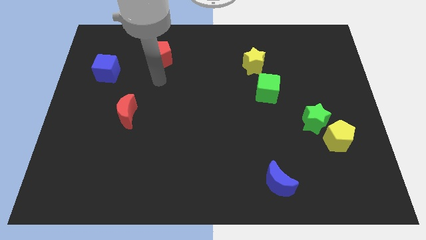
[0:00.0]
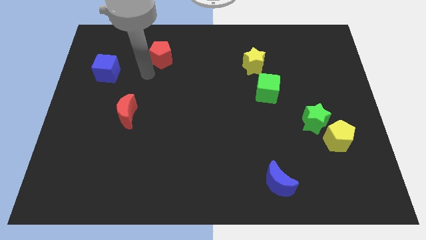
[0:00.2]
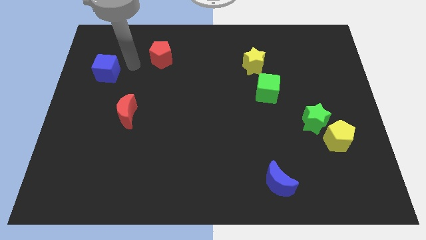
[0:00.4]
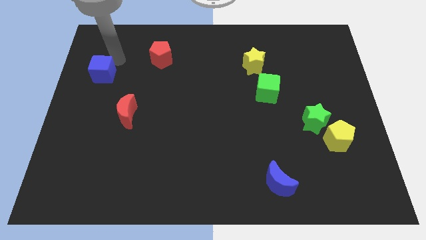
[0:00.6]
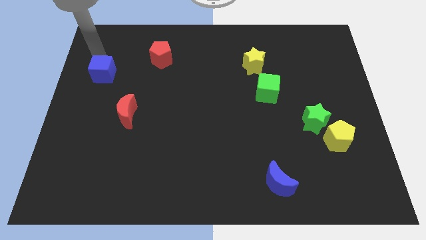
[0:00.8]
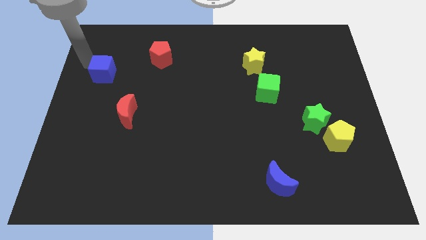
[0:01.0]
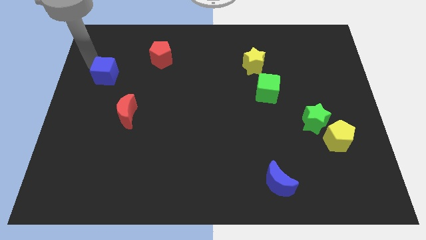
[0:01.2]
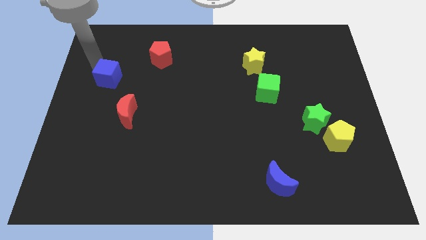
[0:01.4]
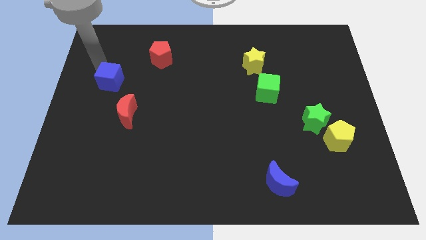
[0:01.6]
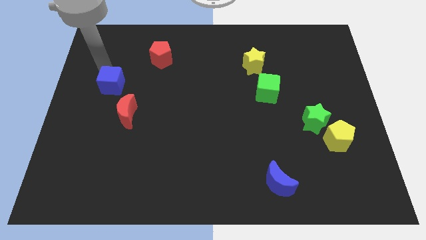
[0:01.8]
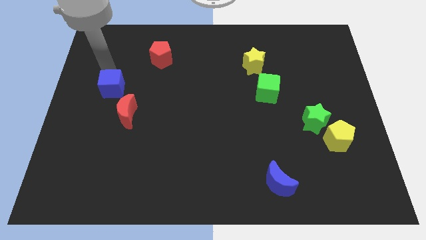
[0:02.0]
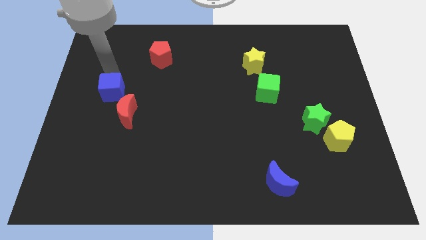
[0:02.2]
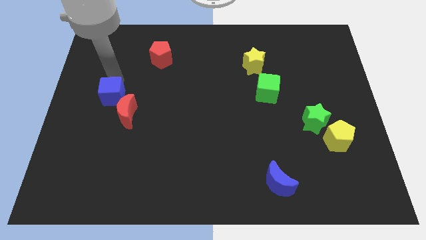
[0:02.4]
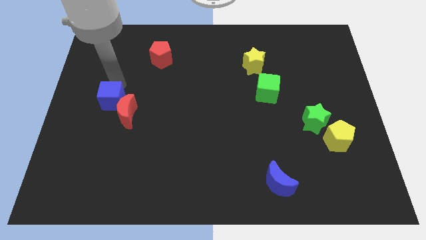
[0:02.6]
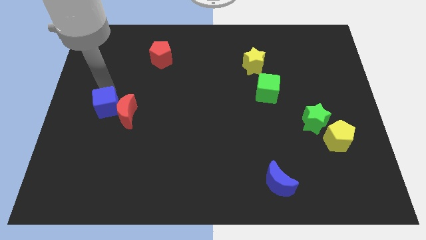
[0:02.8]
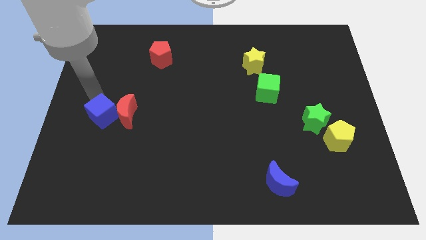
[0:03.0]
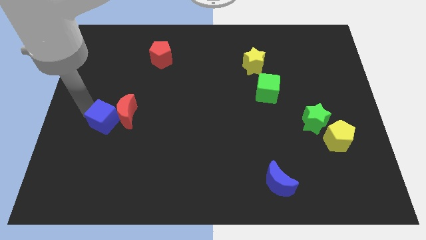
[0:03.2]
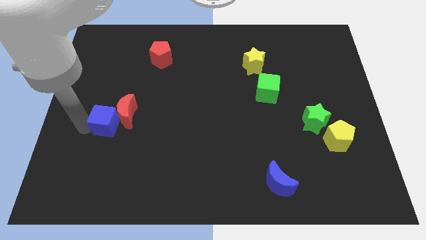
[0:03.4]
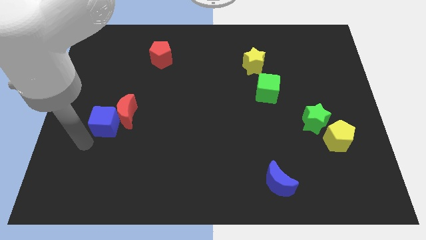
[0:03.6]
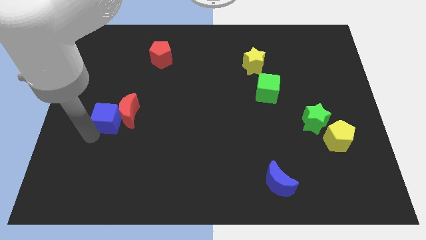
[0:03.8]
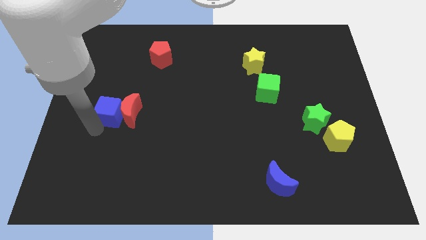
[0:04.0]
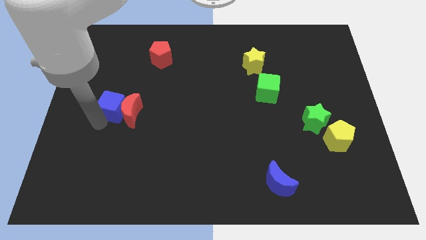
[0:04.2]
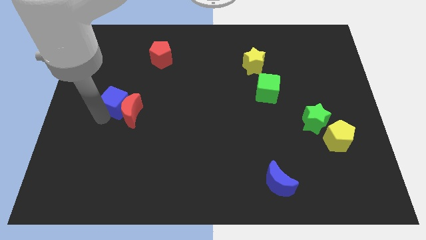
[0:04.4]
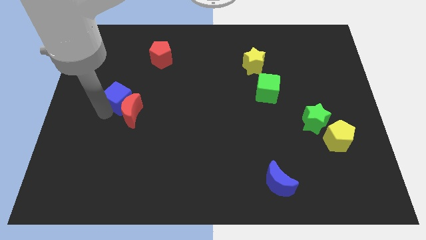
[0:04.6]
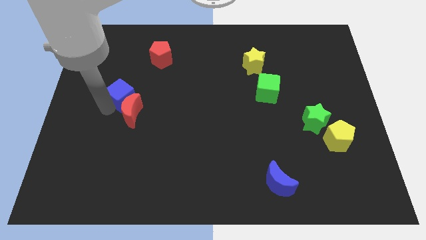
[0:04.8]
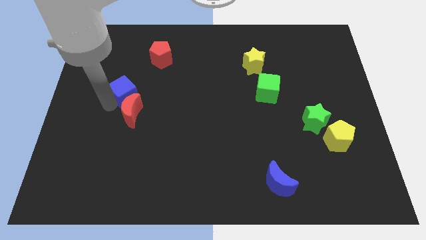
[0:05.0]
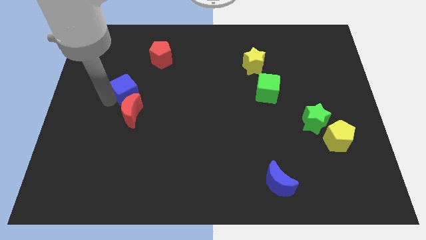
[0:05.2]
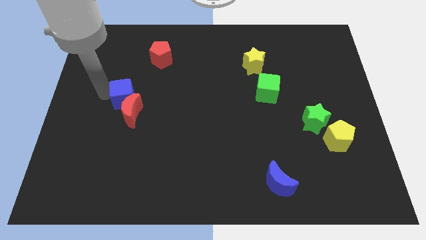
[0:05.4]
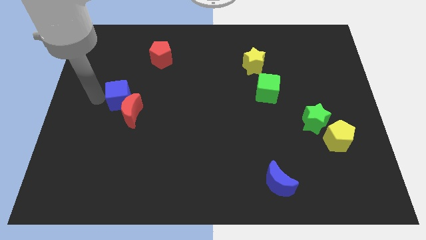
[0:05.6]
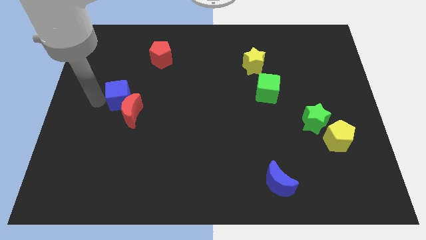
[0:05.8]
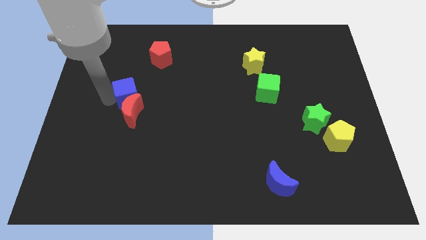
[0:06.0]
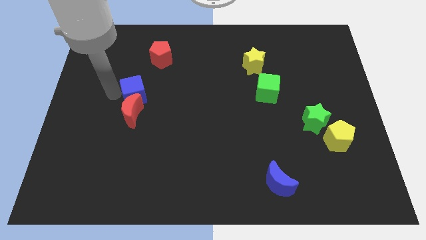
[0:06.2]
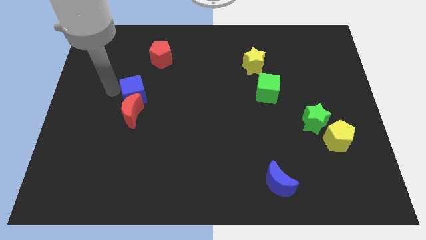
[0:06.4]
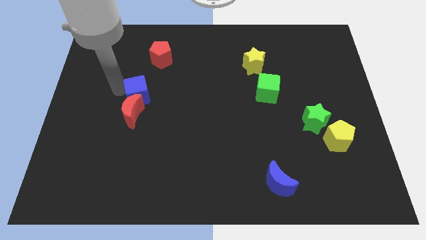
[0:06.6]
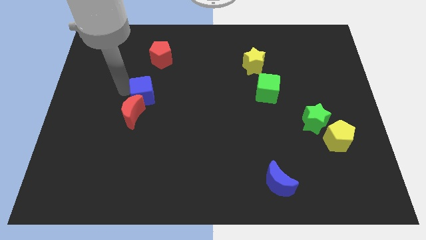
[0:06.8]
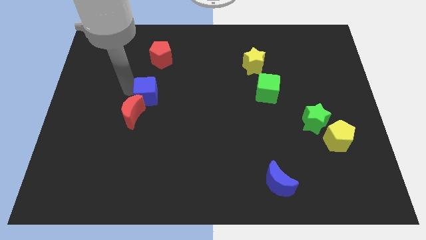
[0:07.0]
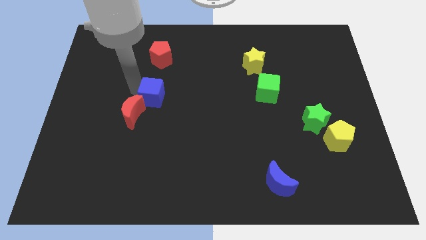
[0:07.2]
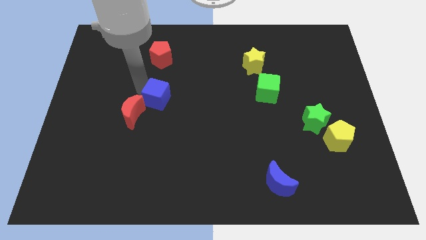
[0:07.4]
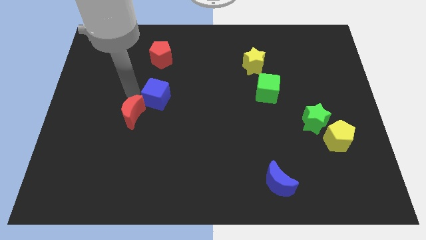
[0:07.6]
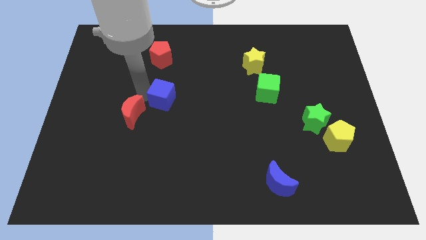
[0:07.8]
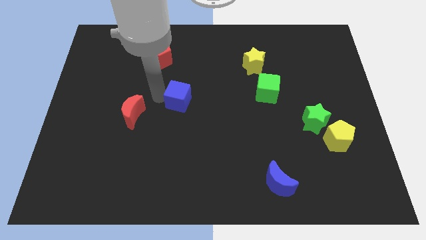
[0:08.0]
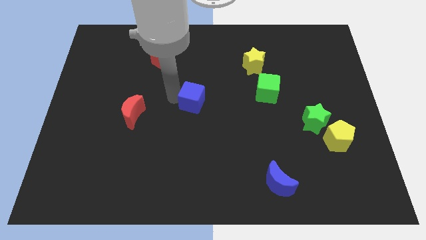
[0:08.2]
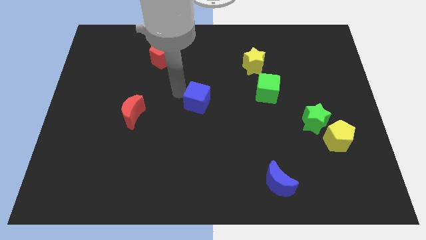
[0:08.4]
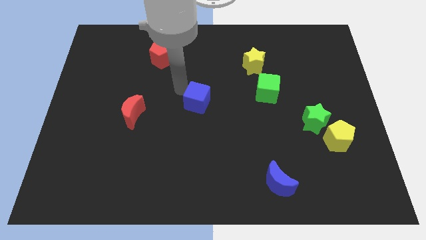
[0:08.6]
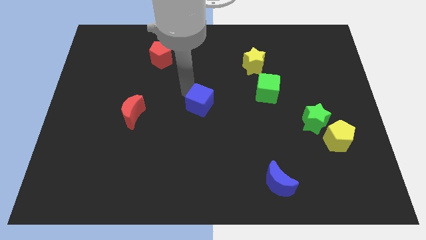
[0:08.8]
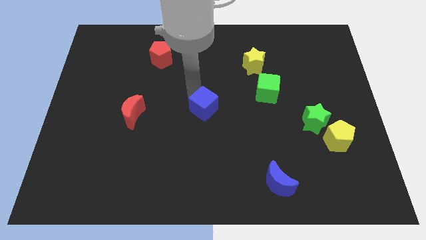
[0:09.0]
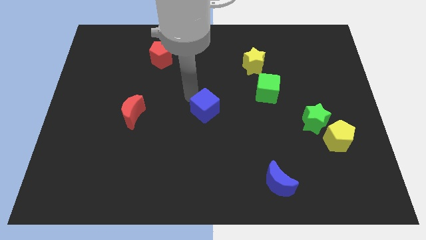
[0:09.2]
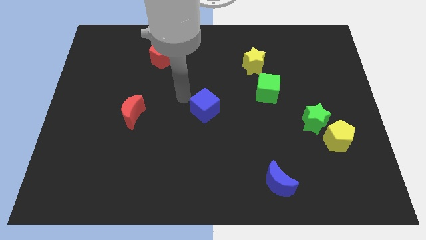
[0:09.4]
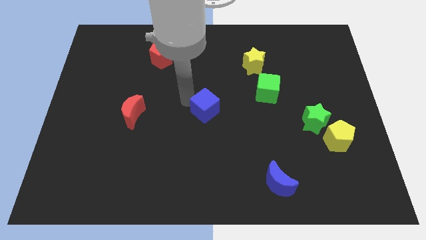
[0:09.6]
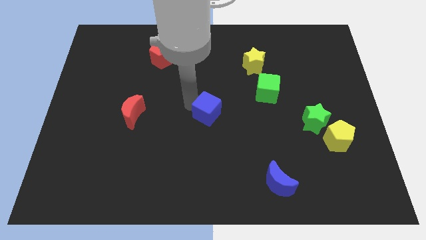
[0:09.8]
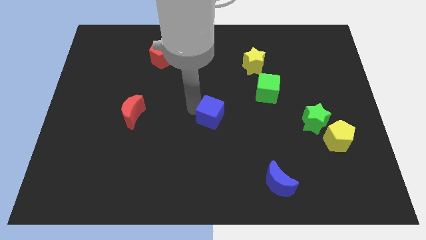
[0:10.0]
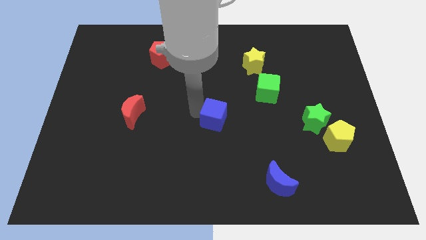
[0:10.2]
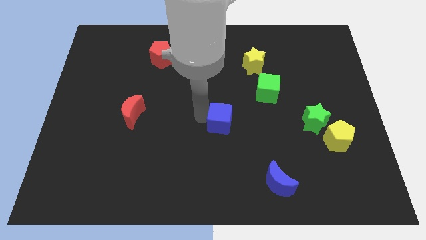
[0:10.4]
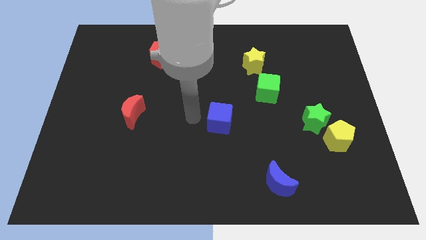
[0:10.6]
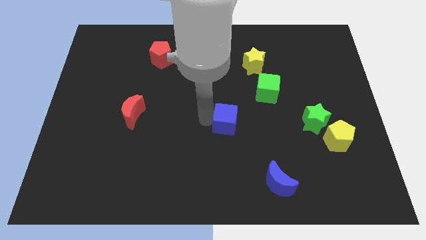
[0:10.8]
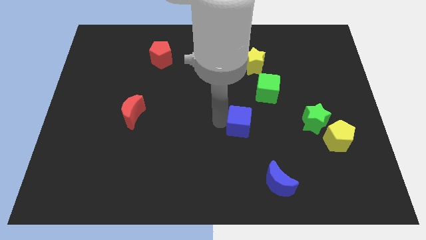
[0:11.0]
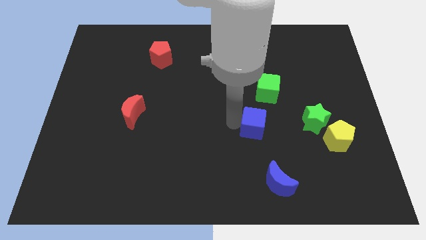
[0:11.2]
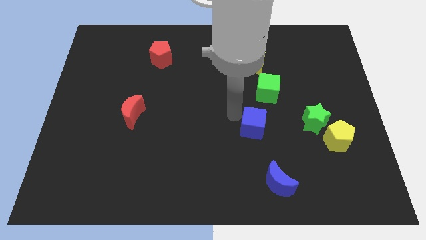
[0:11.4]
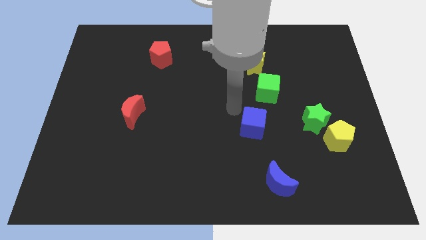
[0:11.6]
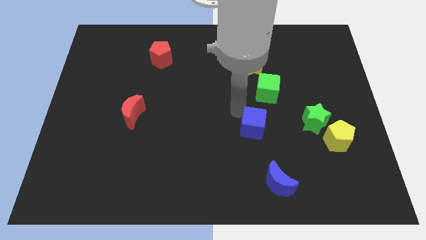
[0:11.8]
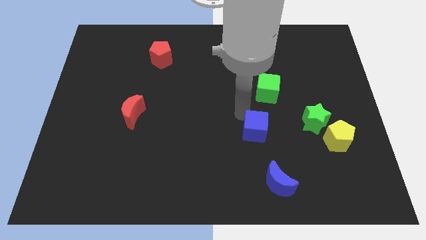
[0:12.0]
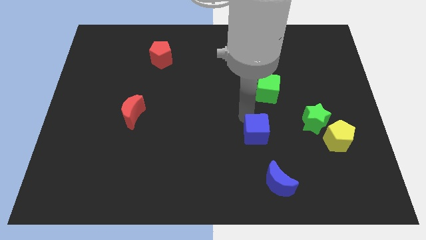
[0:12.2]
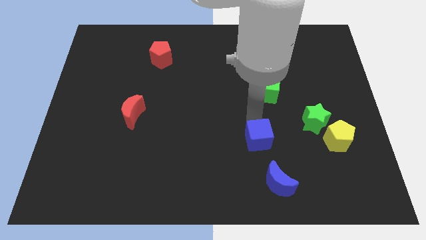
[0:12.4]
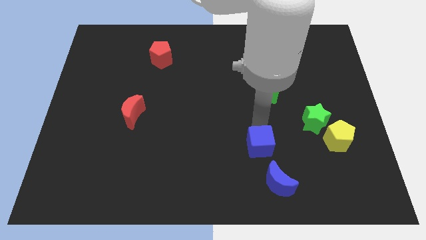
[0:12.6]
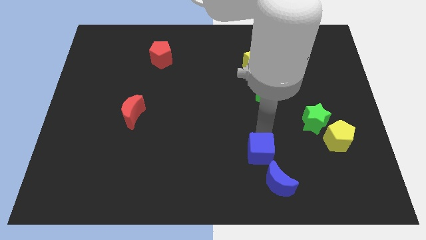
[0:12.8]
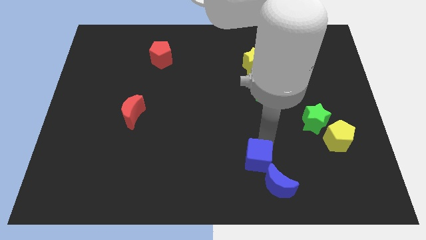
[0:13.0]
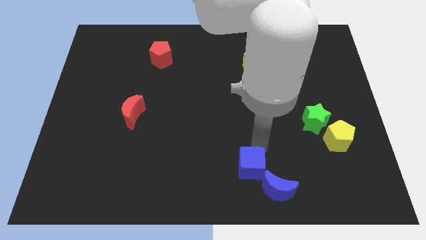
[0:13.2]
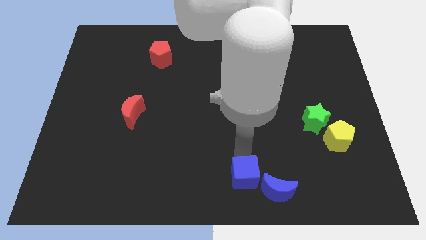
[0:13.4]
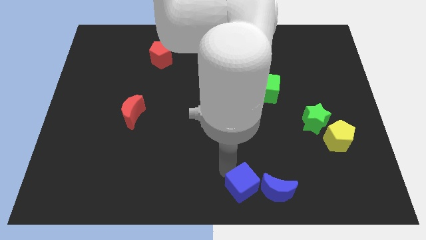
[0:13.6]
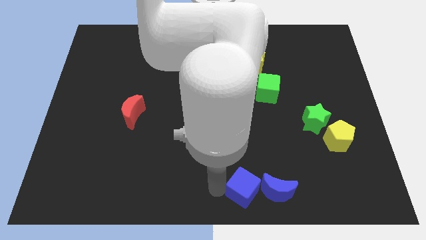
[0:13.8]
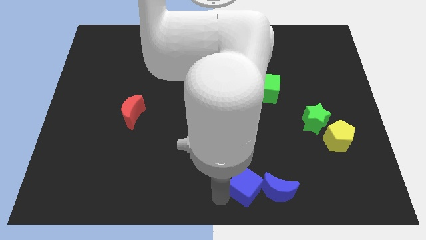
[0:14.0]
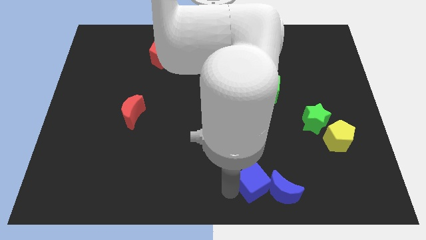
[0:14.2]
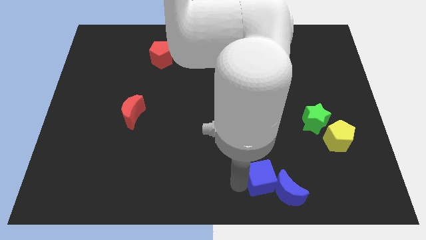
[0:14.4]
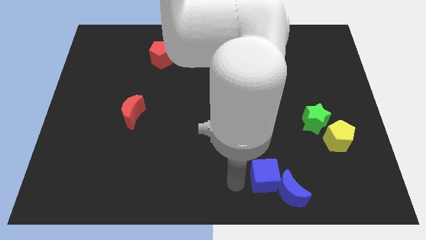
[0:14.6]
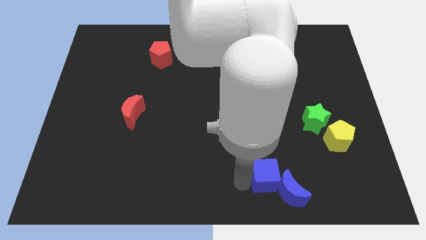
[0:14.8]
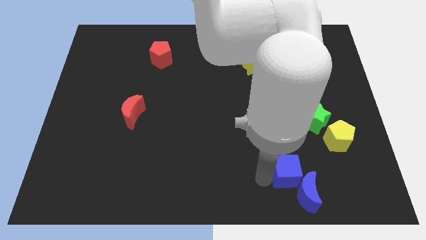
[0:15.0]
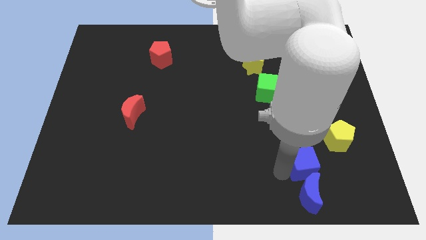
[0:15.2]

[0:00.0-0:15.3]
slide the blue cube to the top right of the blue moon
